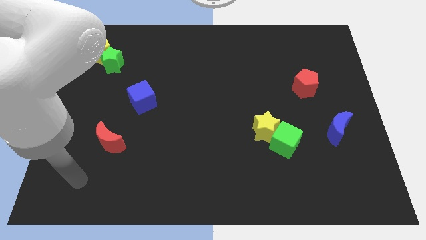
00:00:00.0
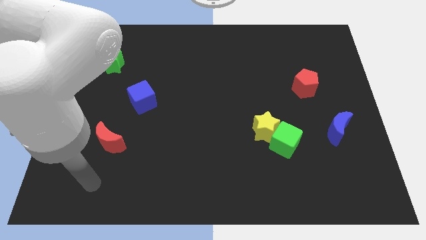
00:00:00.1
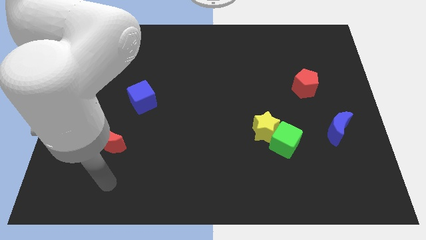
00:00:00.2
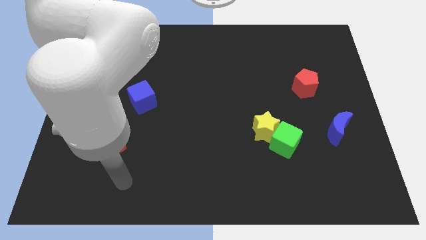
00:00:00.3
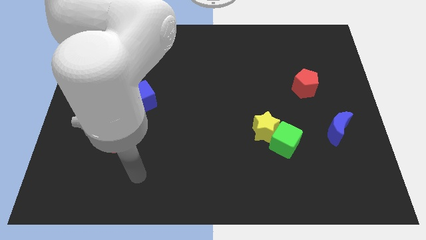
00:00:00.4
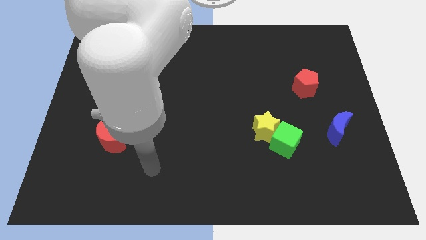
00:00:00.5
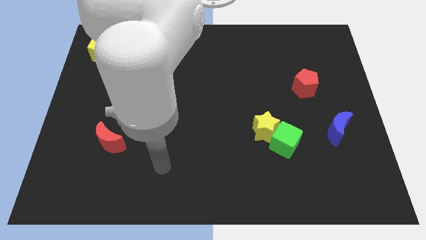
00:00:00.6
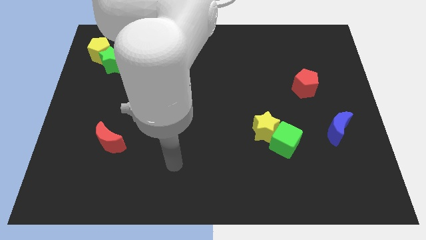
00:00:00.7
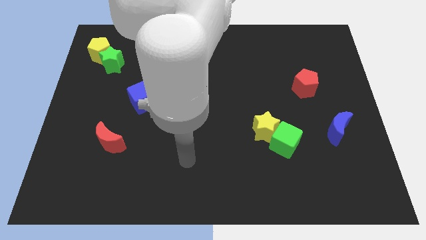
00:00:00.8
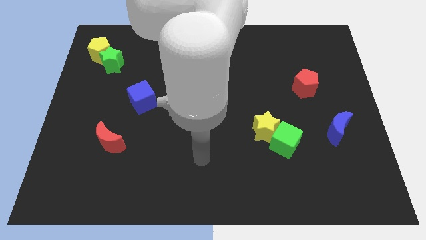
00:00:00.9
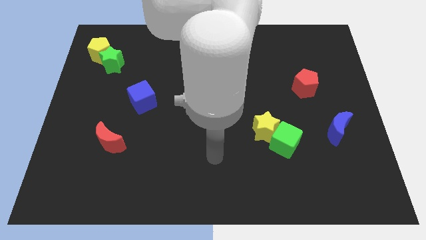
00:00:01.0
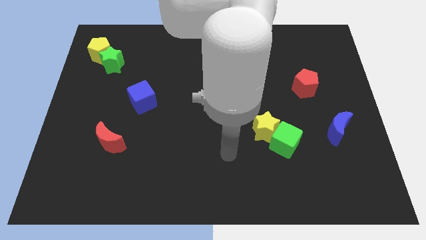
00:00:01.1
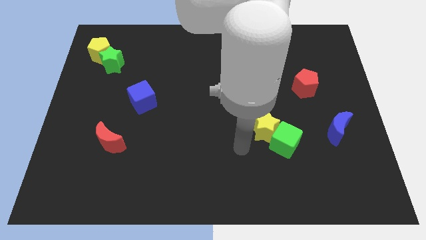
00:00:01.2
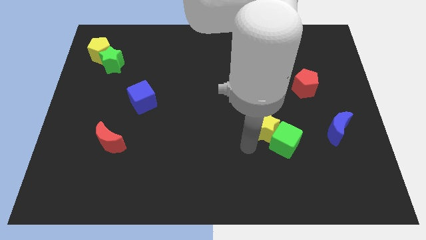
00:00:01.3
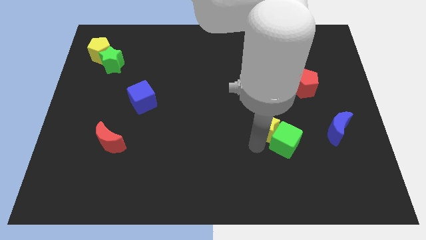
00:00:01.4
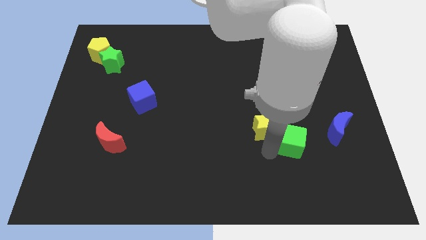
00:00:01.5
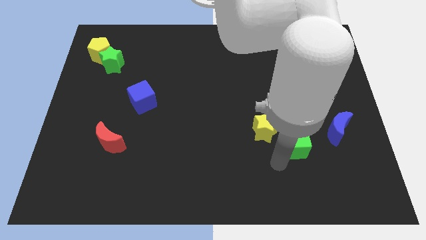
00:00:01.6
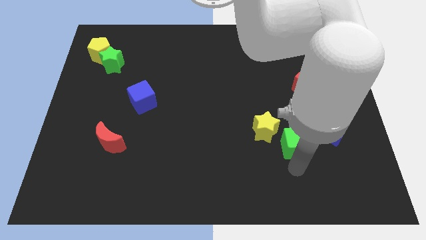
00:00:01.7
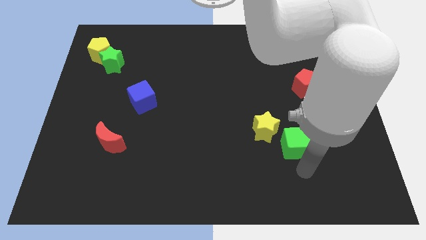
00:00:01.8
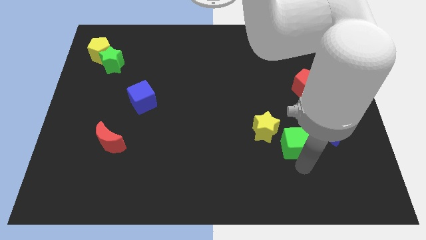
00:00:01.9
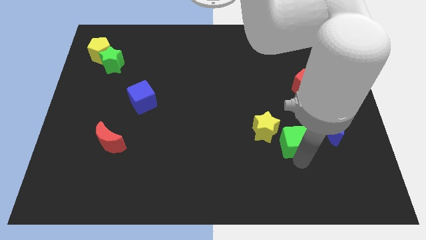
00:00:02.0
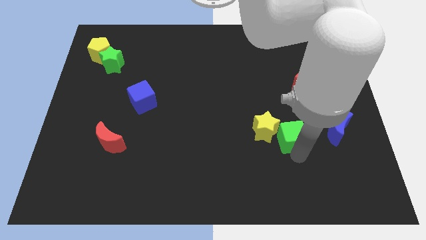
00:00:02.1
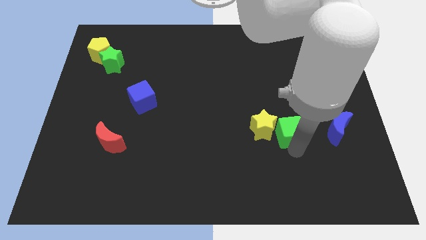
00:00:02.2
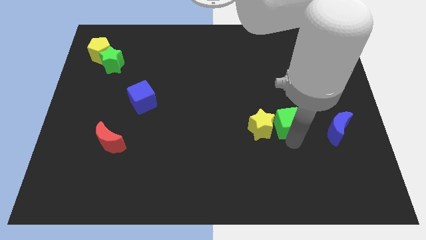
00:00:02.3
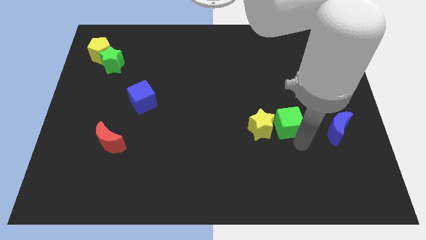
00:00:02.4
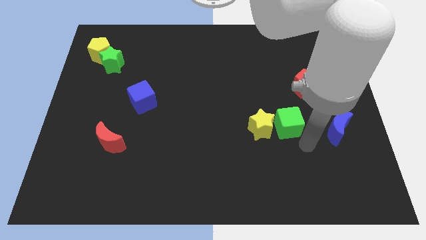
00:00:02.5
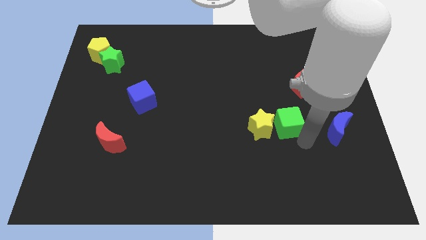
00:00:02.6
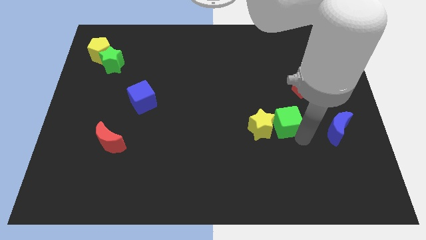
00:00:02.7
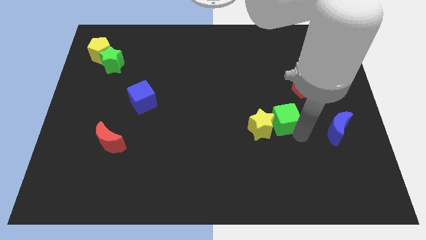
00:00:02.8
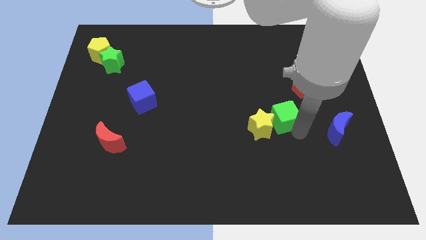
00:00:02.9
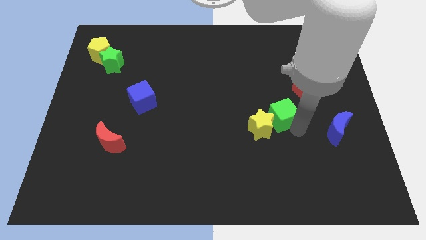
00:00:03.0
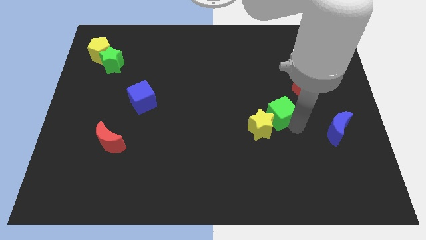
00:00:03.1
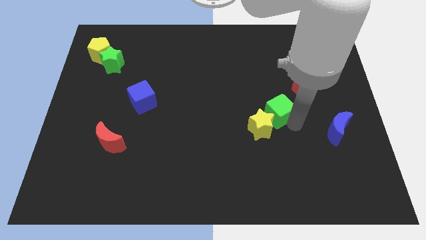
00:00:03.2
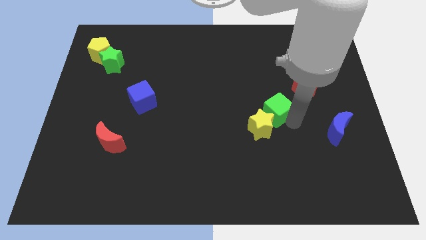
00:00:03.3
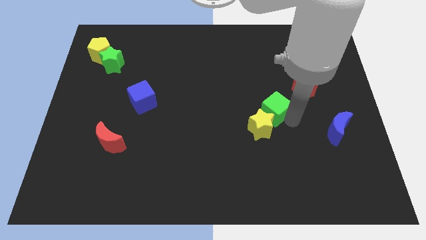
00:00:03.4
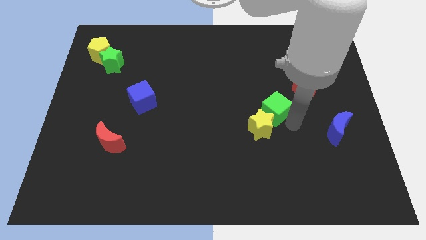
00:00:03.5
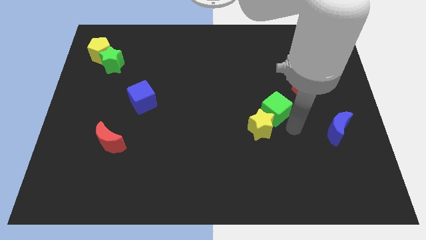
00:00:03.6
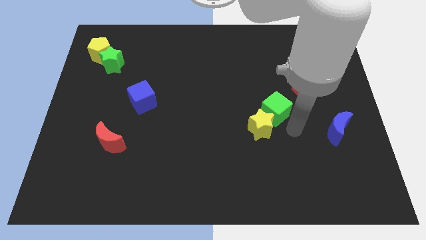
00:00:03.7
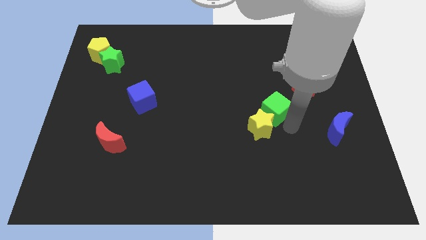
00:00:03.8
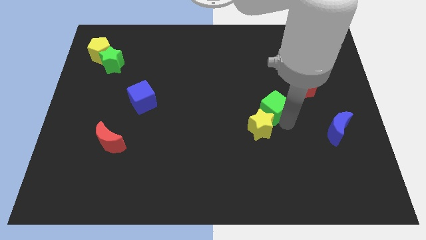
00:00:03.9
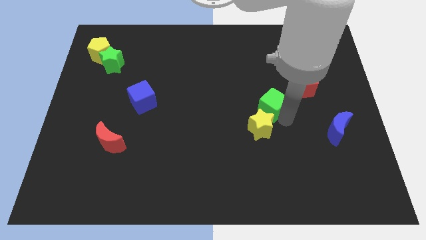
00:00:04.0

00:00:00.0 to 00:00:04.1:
slide the green cube upwards and to the left diagonally slightly

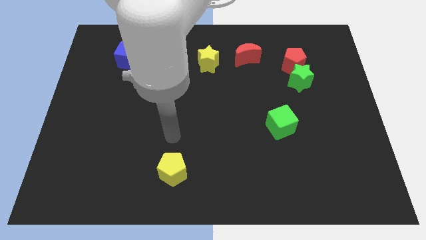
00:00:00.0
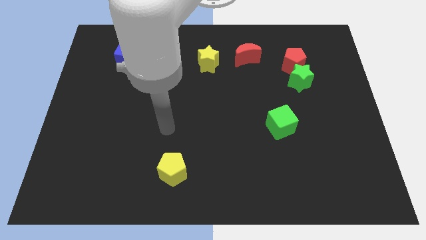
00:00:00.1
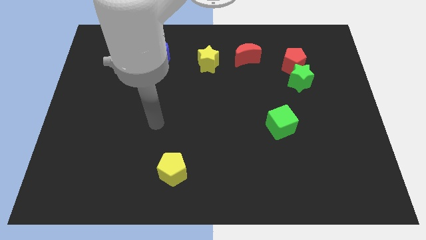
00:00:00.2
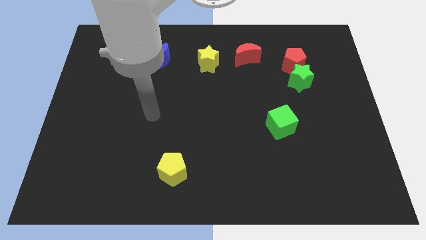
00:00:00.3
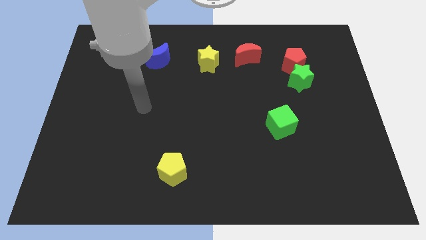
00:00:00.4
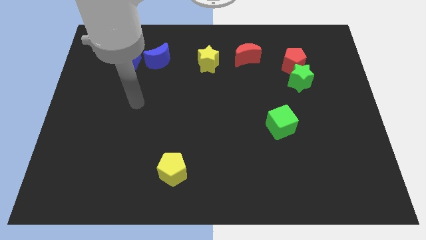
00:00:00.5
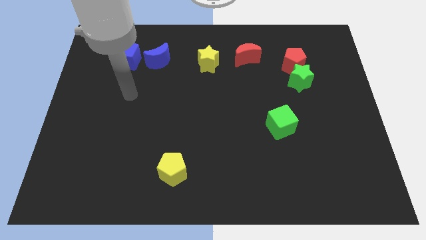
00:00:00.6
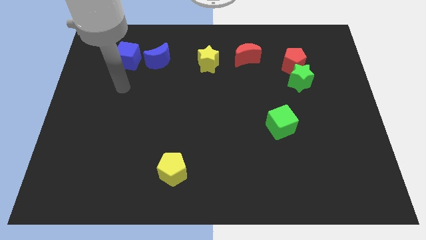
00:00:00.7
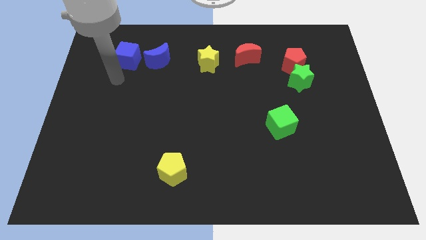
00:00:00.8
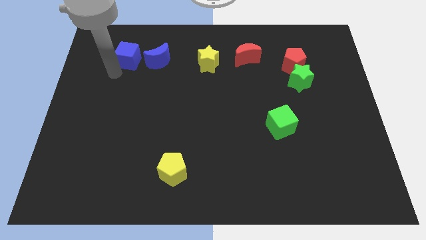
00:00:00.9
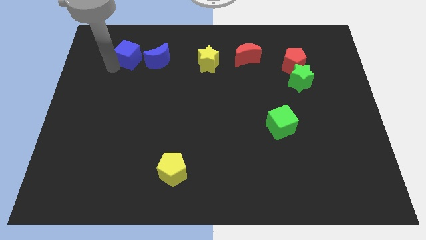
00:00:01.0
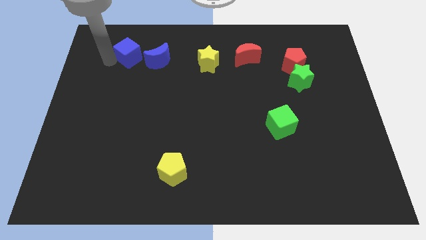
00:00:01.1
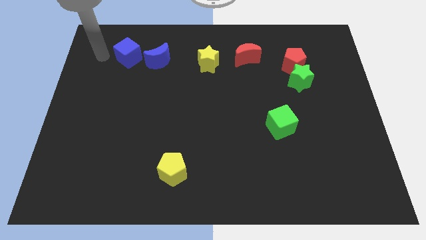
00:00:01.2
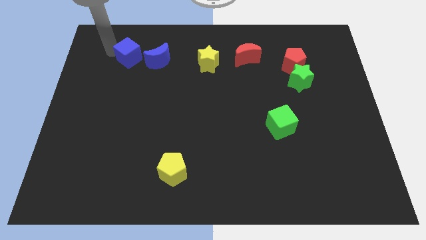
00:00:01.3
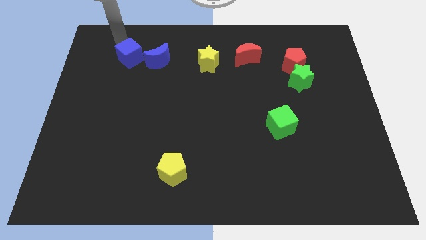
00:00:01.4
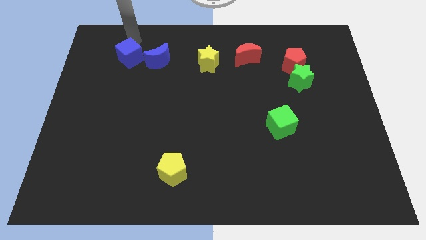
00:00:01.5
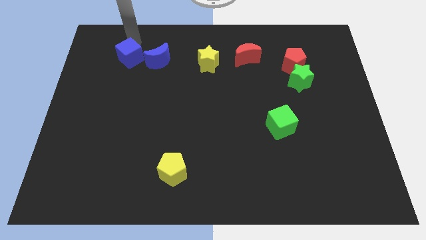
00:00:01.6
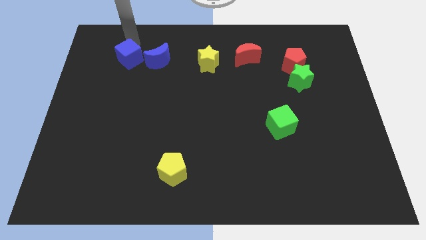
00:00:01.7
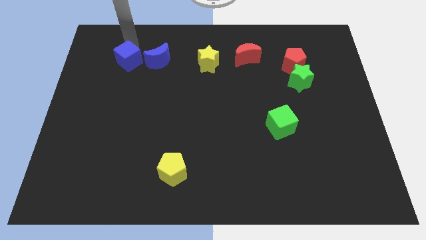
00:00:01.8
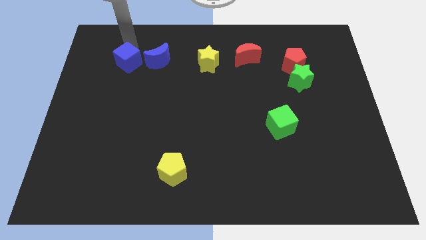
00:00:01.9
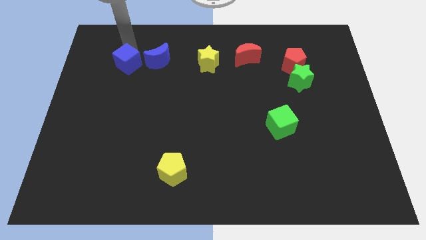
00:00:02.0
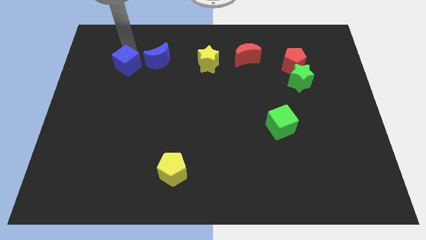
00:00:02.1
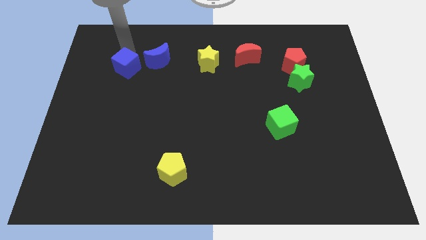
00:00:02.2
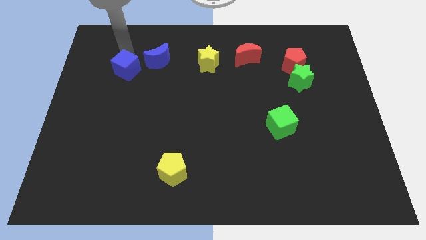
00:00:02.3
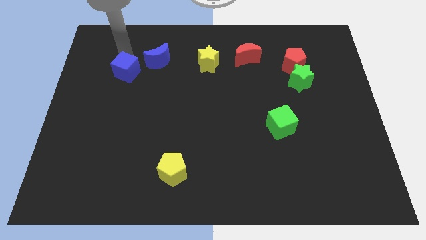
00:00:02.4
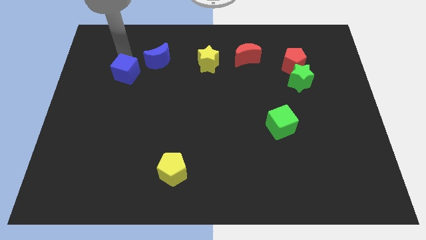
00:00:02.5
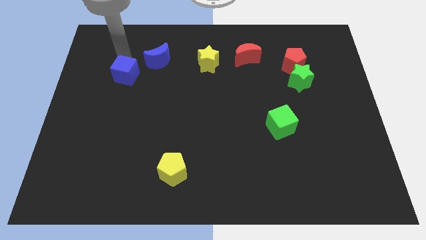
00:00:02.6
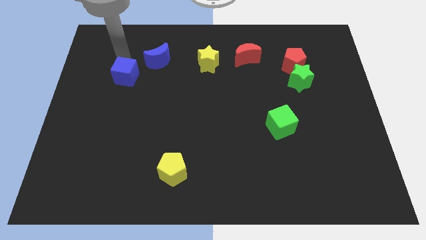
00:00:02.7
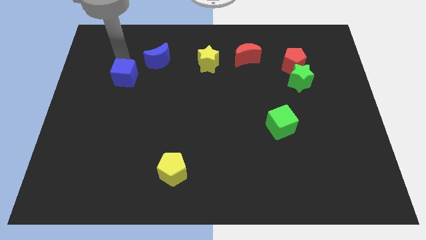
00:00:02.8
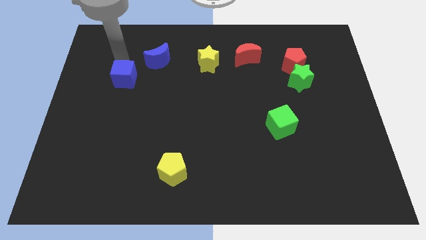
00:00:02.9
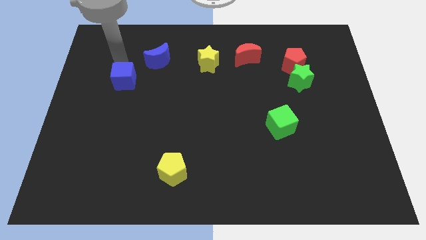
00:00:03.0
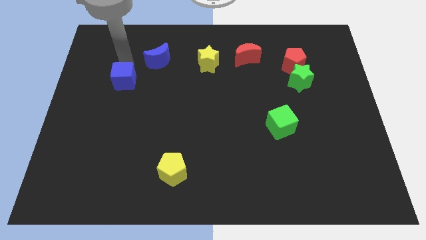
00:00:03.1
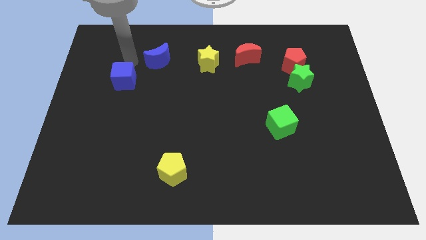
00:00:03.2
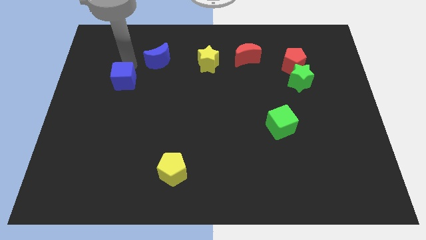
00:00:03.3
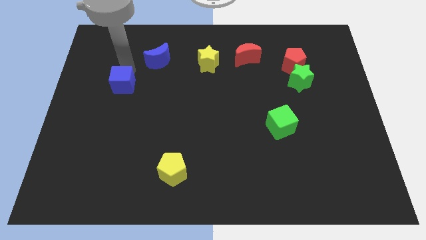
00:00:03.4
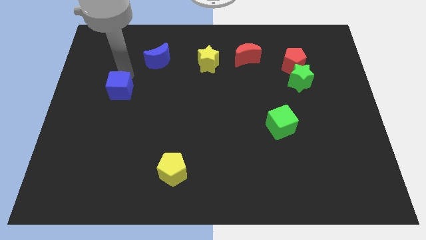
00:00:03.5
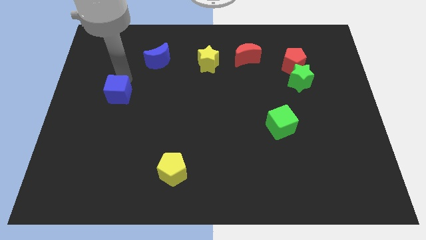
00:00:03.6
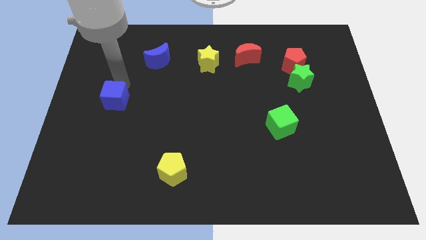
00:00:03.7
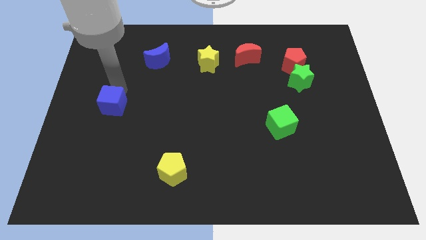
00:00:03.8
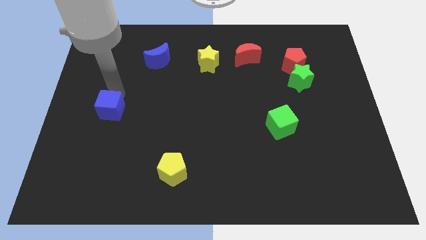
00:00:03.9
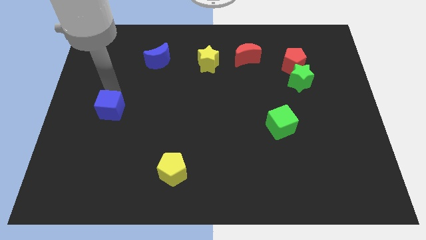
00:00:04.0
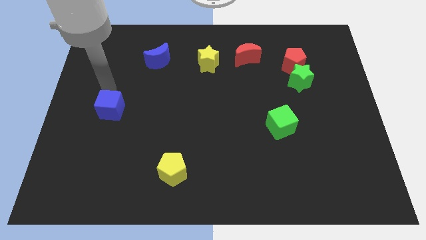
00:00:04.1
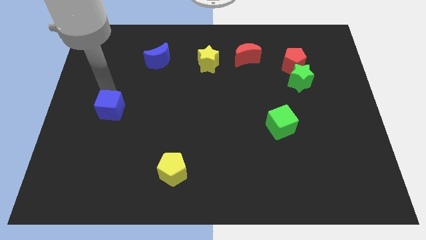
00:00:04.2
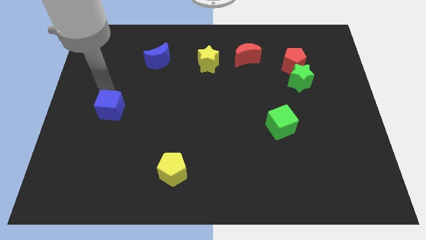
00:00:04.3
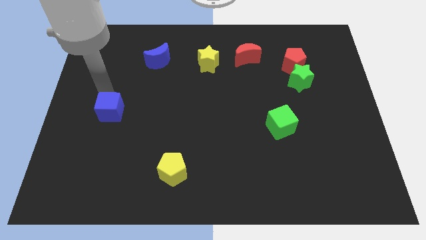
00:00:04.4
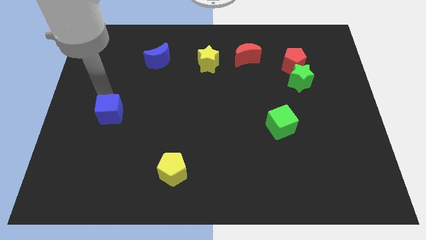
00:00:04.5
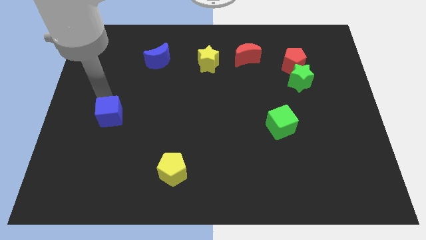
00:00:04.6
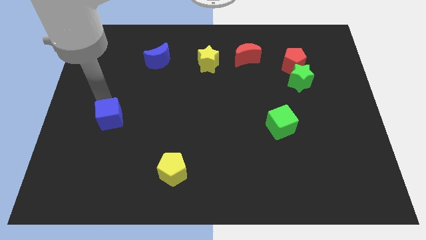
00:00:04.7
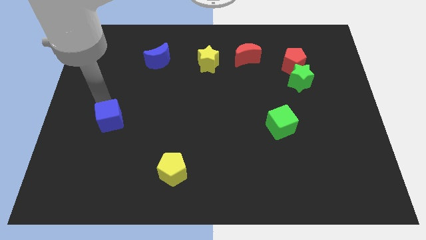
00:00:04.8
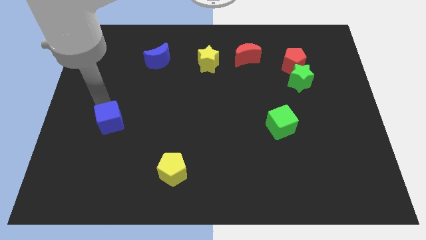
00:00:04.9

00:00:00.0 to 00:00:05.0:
push the blue cube downwards
